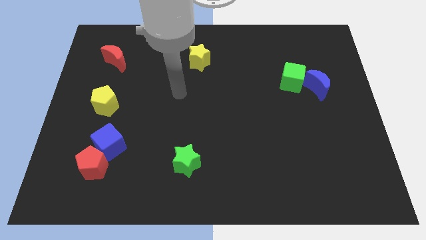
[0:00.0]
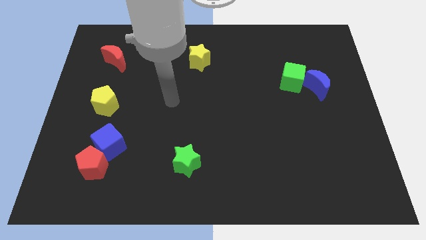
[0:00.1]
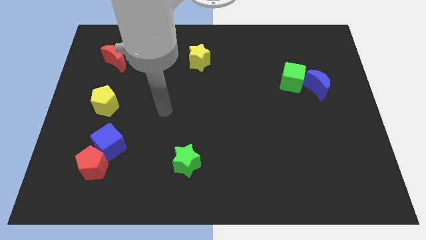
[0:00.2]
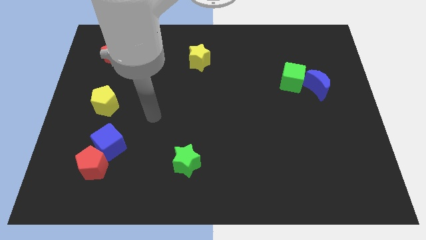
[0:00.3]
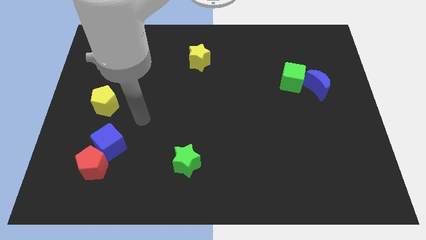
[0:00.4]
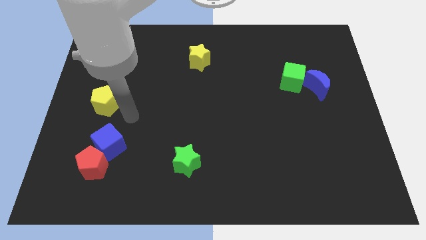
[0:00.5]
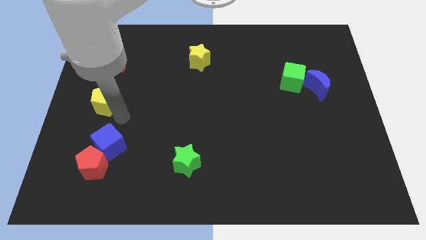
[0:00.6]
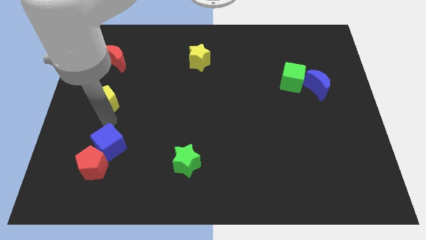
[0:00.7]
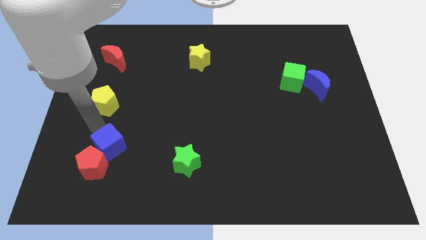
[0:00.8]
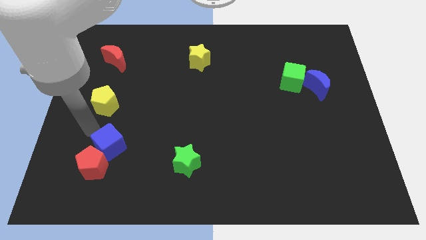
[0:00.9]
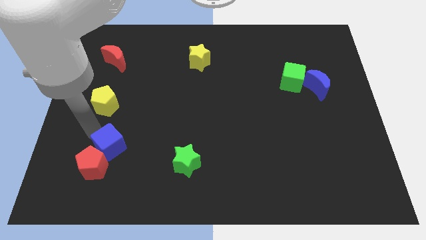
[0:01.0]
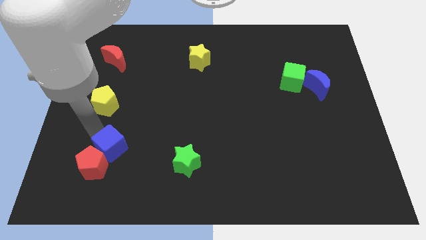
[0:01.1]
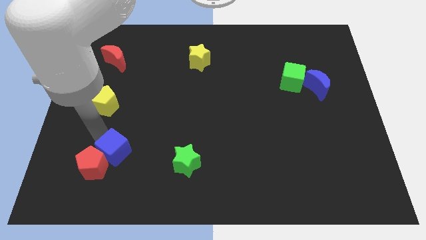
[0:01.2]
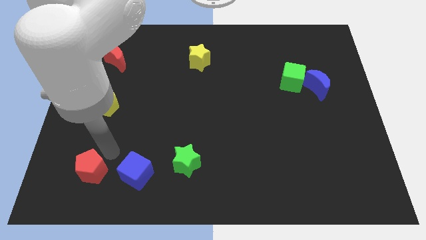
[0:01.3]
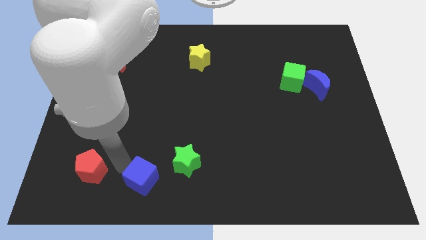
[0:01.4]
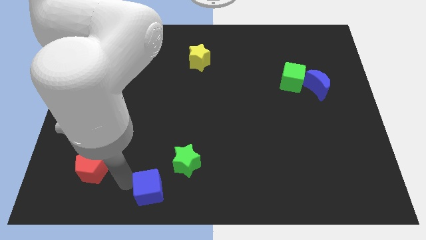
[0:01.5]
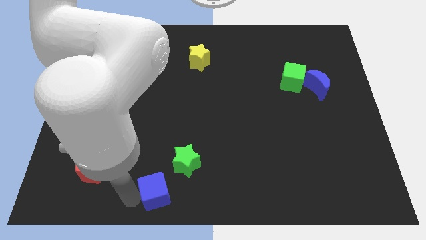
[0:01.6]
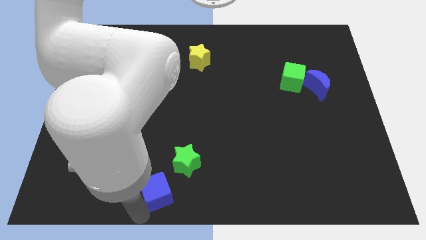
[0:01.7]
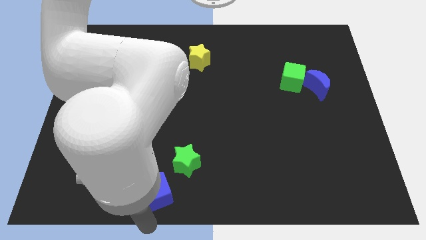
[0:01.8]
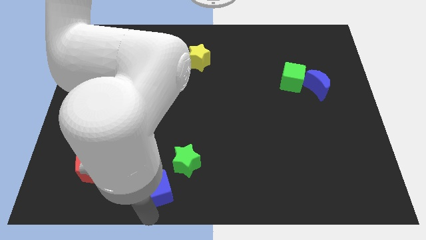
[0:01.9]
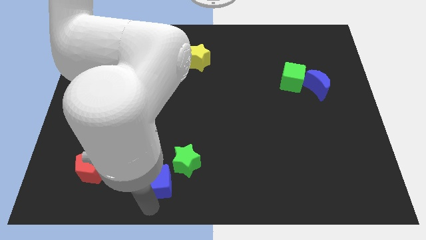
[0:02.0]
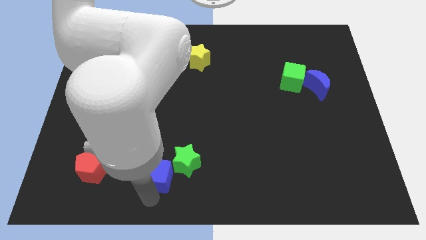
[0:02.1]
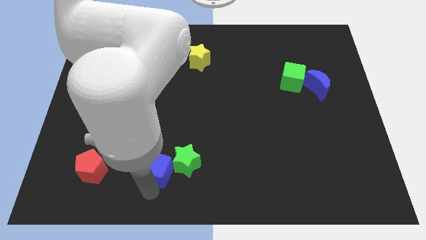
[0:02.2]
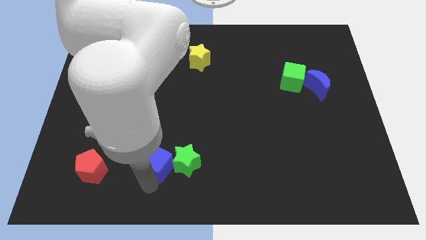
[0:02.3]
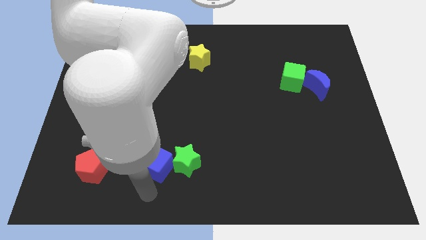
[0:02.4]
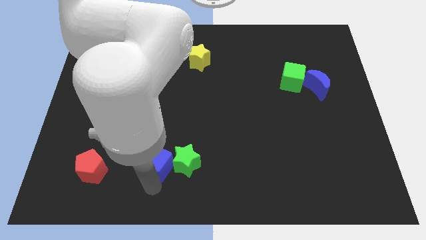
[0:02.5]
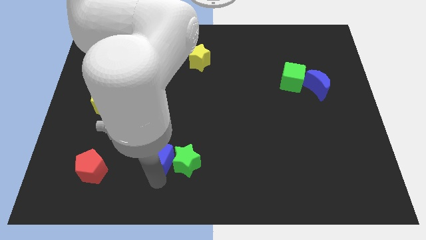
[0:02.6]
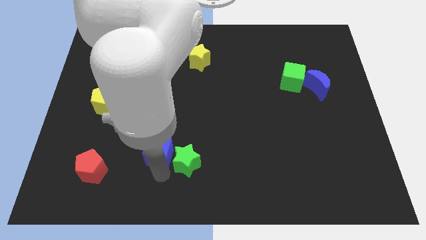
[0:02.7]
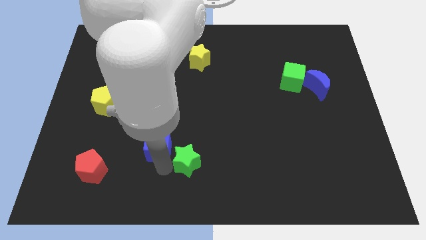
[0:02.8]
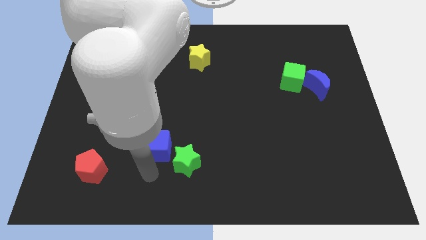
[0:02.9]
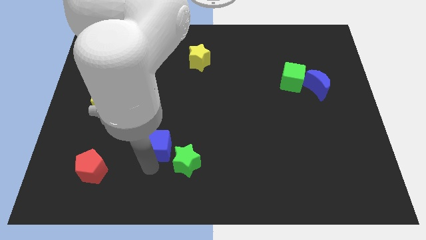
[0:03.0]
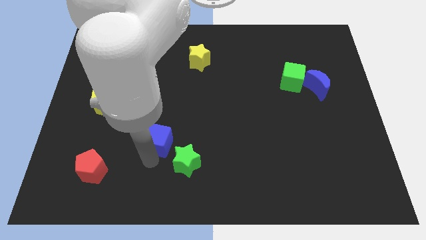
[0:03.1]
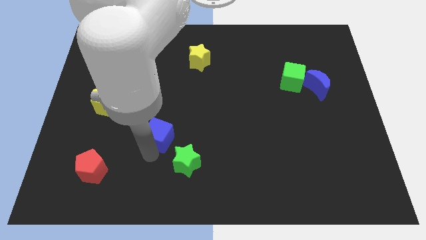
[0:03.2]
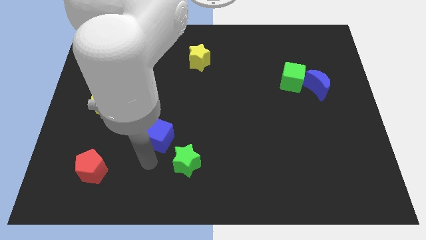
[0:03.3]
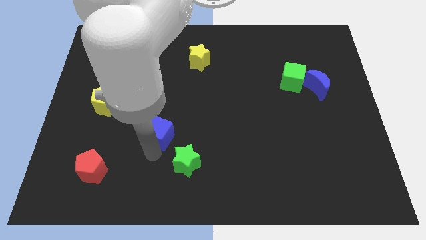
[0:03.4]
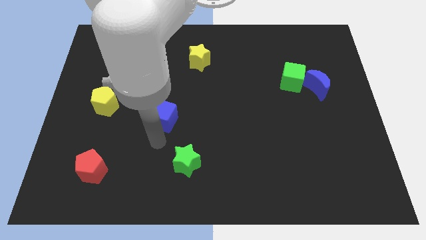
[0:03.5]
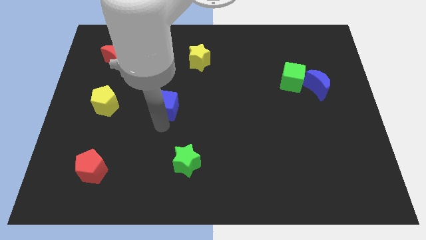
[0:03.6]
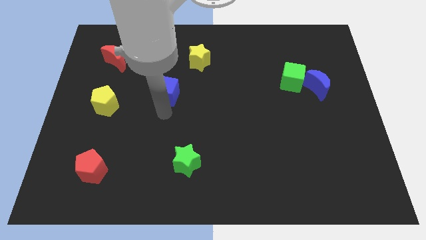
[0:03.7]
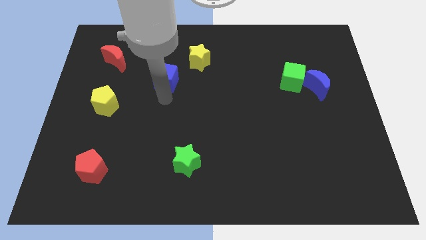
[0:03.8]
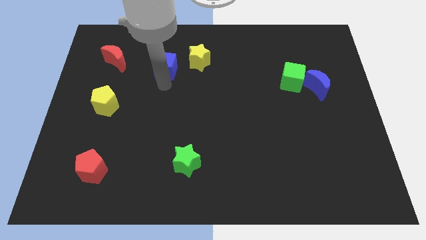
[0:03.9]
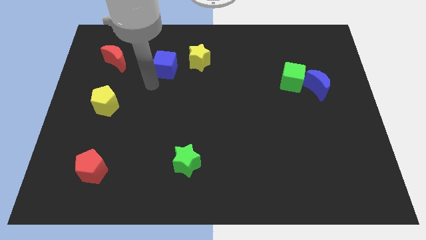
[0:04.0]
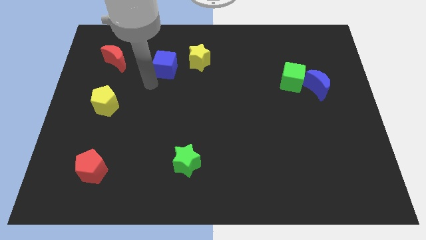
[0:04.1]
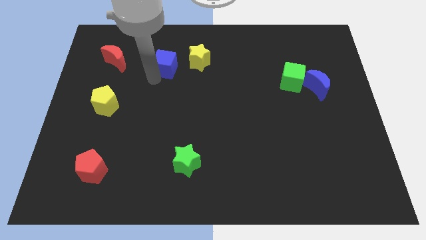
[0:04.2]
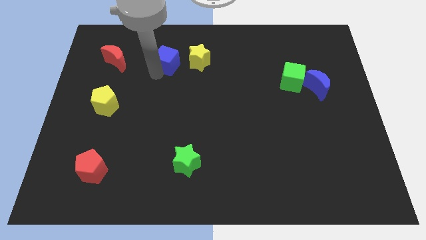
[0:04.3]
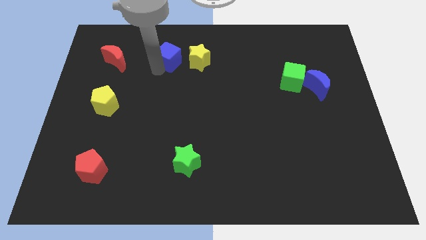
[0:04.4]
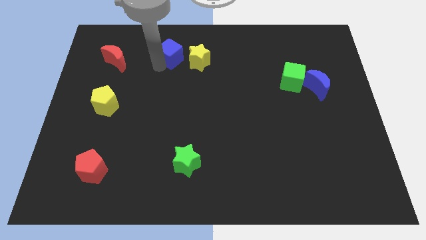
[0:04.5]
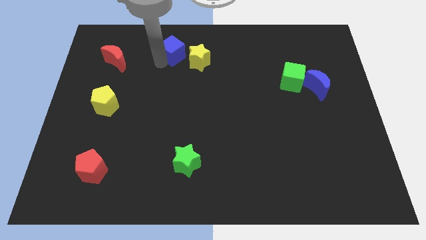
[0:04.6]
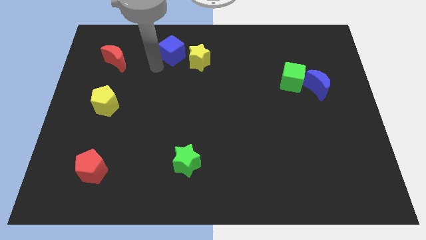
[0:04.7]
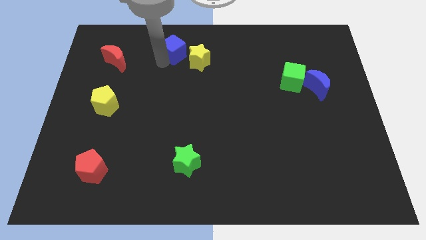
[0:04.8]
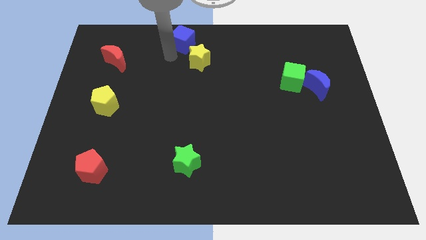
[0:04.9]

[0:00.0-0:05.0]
slide the blue cube to the top side
